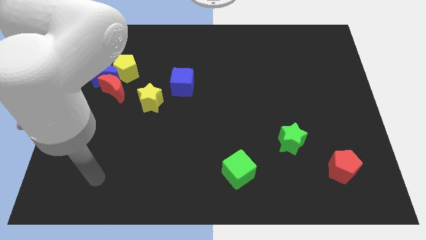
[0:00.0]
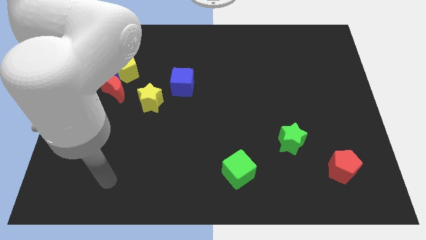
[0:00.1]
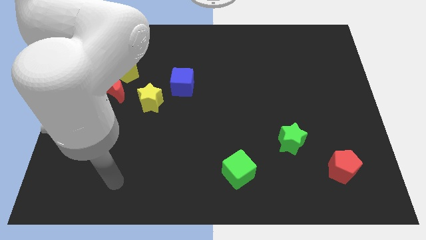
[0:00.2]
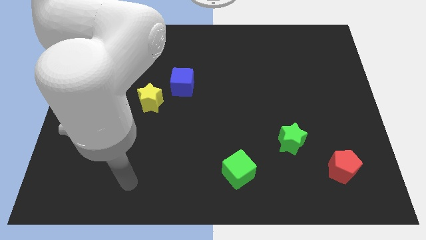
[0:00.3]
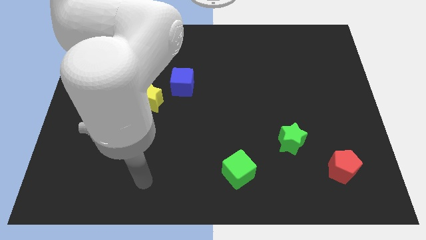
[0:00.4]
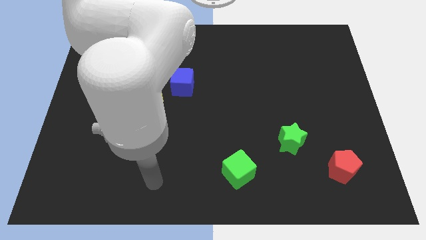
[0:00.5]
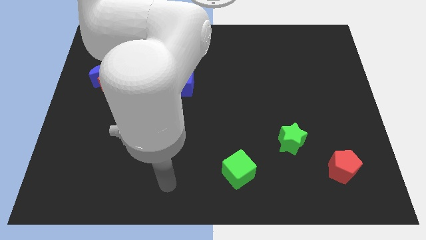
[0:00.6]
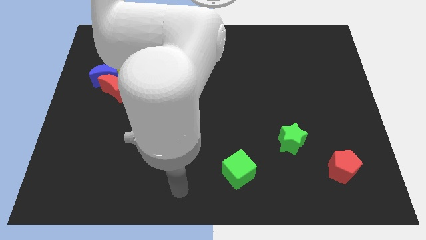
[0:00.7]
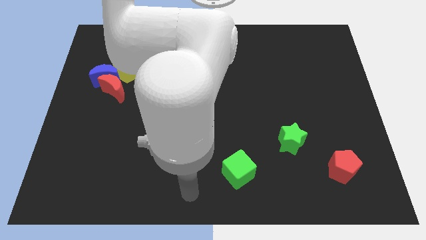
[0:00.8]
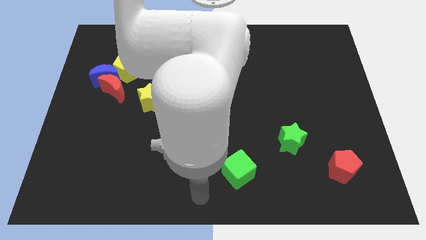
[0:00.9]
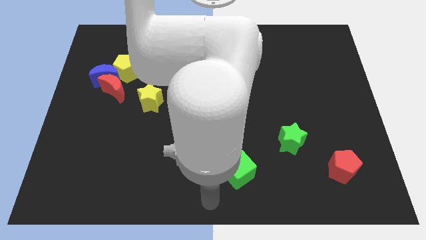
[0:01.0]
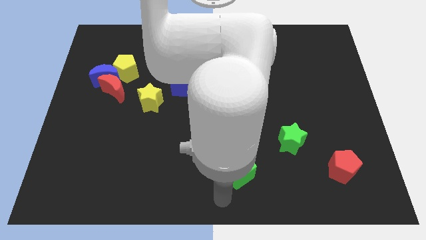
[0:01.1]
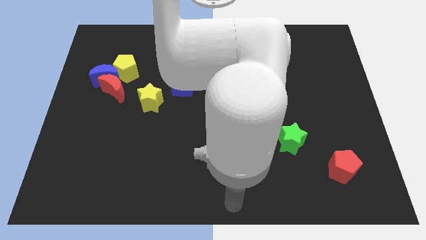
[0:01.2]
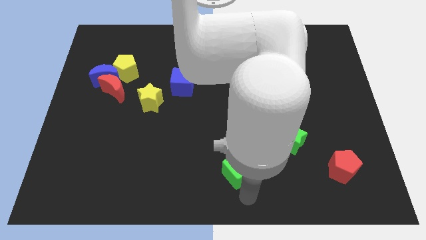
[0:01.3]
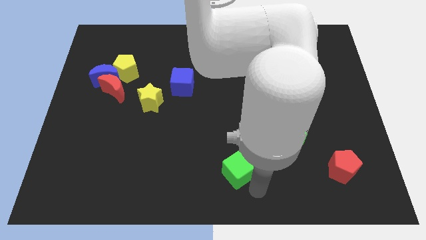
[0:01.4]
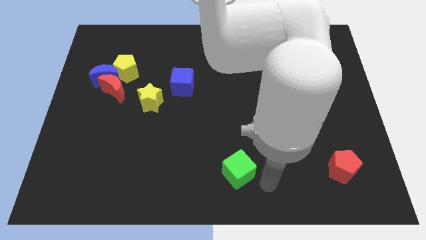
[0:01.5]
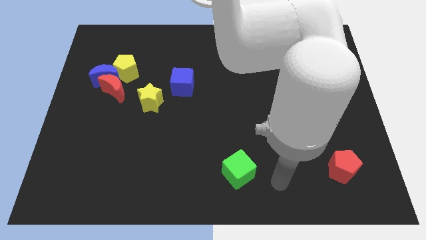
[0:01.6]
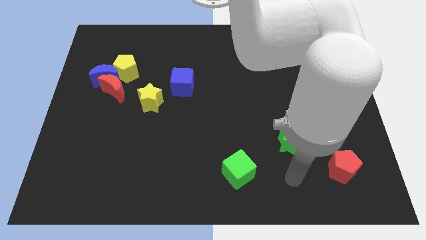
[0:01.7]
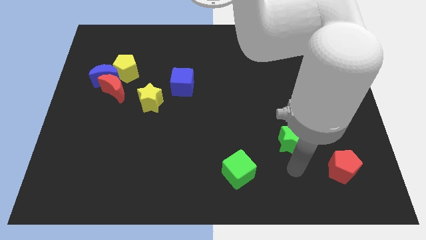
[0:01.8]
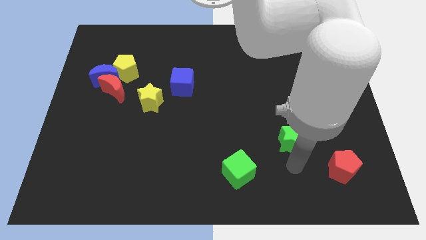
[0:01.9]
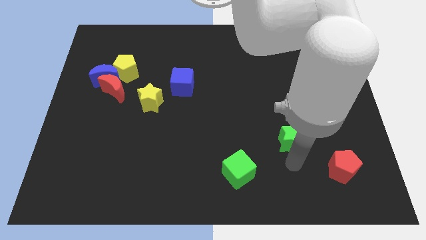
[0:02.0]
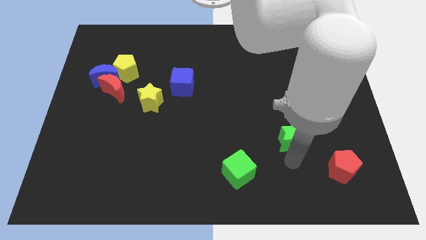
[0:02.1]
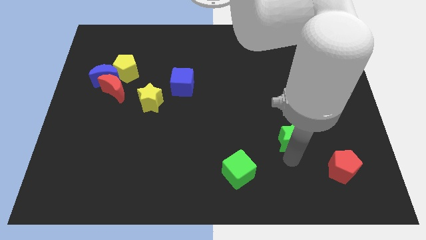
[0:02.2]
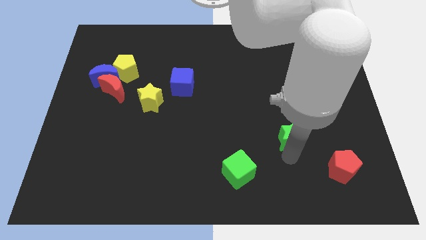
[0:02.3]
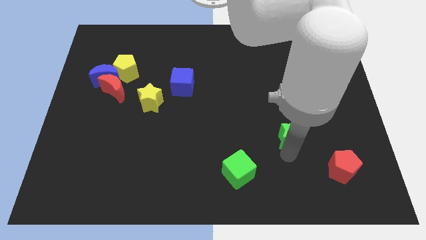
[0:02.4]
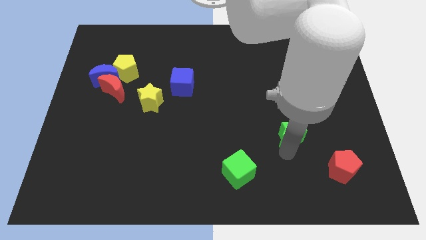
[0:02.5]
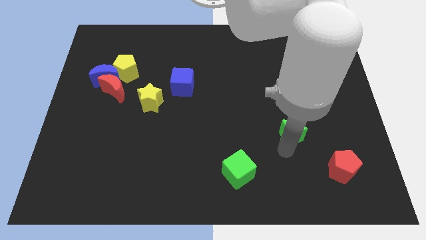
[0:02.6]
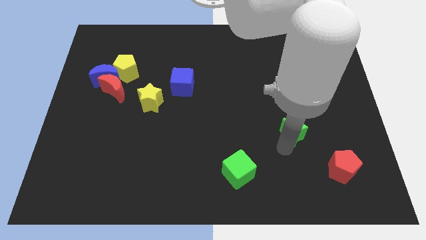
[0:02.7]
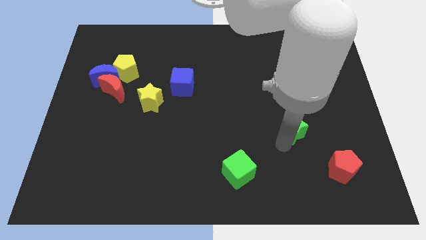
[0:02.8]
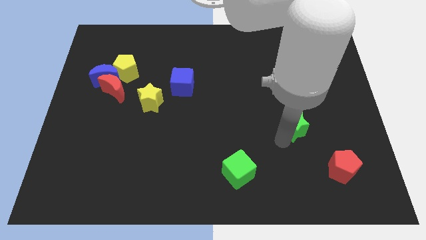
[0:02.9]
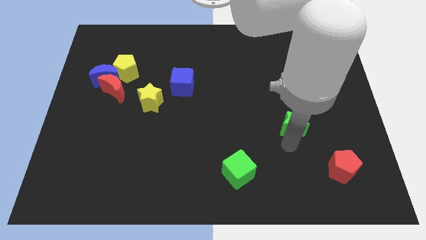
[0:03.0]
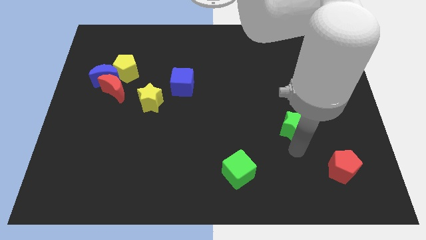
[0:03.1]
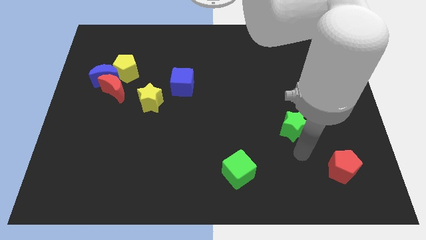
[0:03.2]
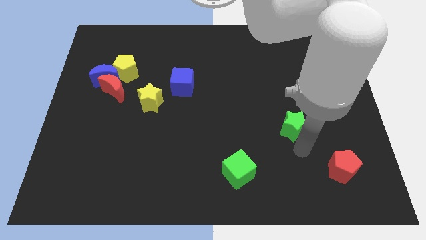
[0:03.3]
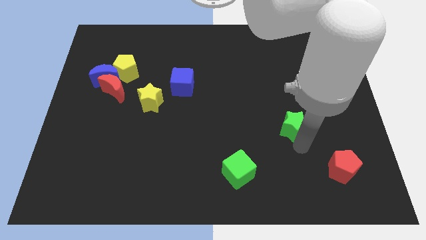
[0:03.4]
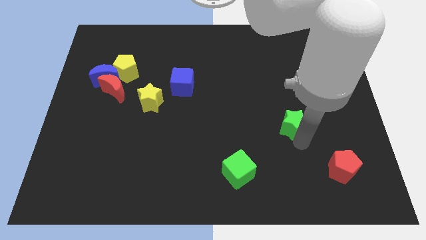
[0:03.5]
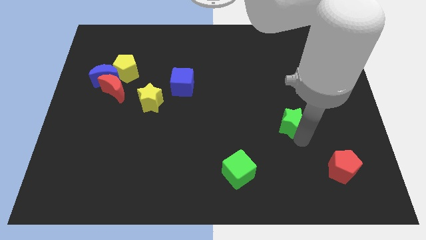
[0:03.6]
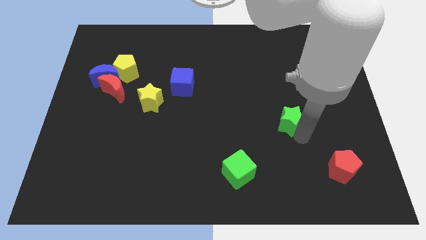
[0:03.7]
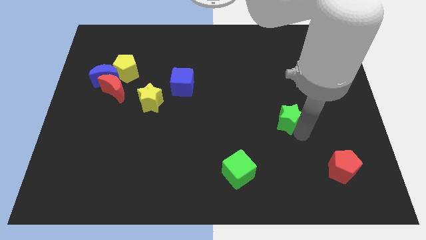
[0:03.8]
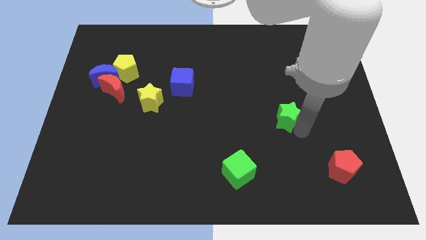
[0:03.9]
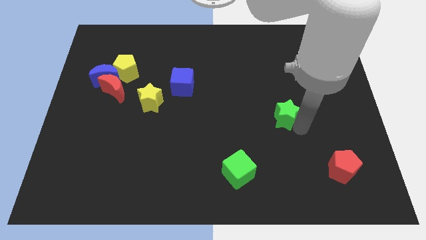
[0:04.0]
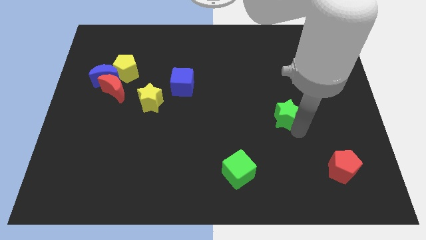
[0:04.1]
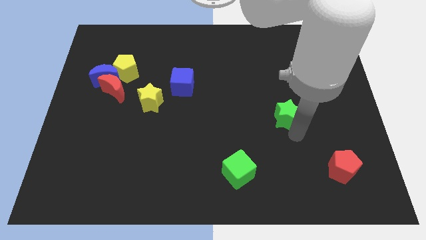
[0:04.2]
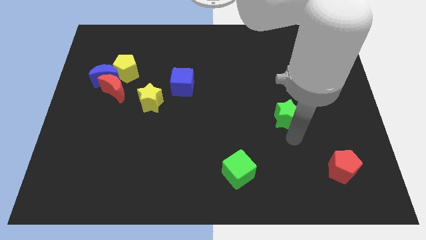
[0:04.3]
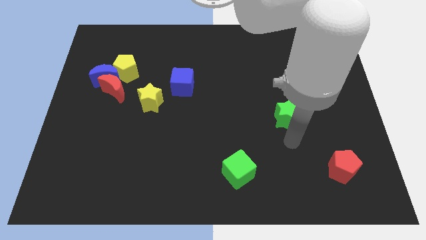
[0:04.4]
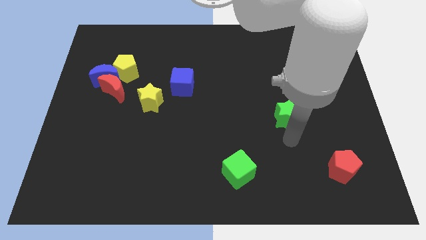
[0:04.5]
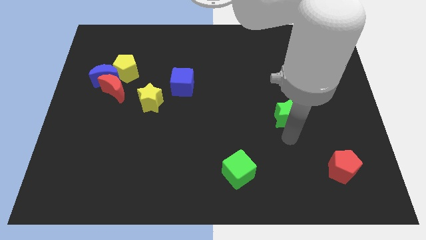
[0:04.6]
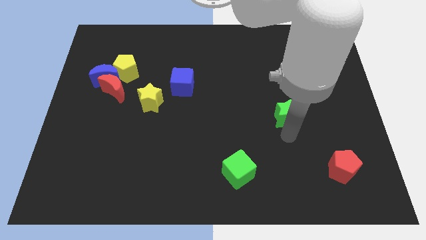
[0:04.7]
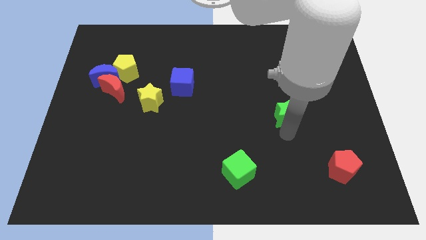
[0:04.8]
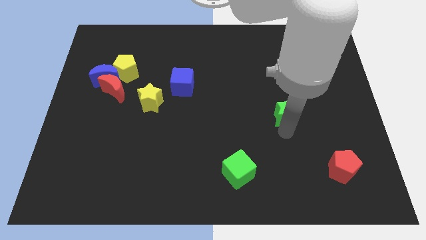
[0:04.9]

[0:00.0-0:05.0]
push the green star up a little bit

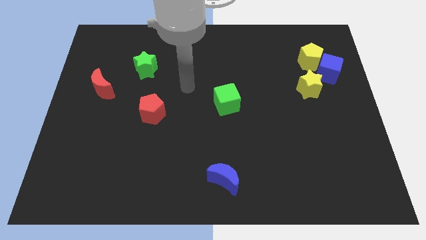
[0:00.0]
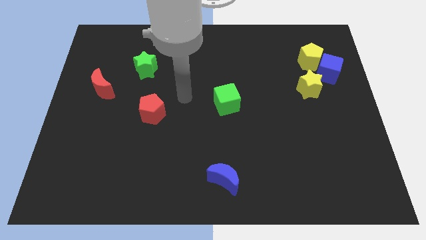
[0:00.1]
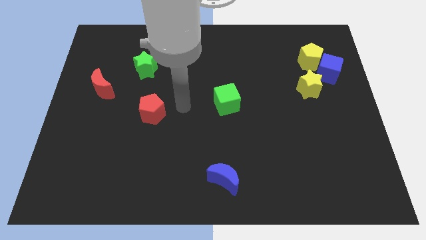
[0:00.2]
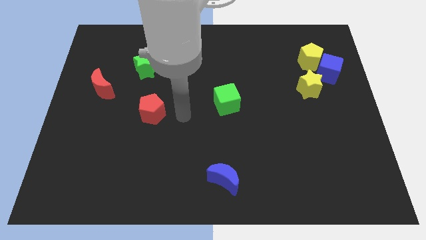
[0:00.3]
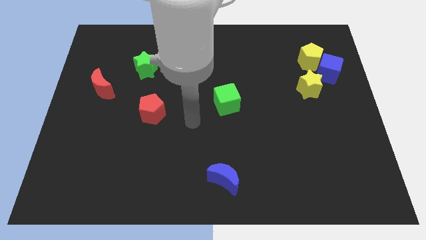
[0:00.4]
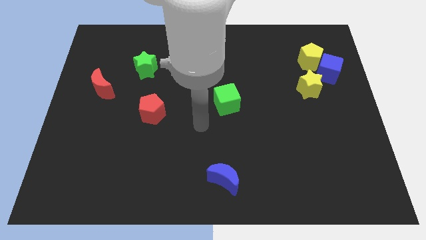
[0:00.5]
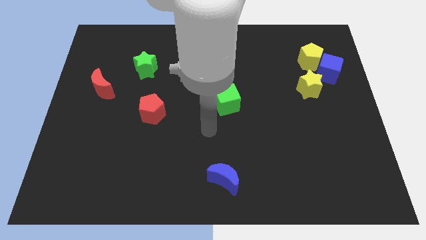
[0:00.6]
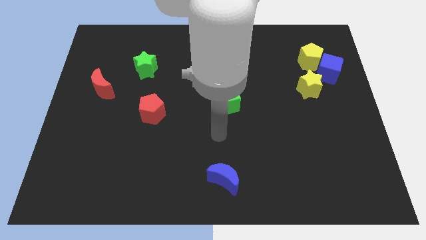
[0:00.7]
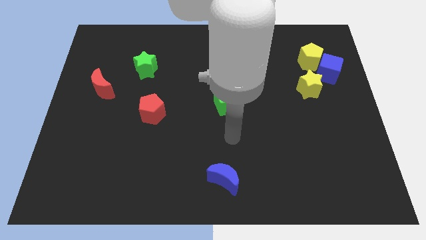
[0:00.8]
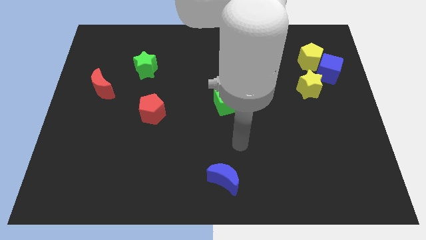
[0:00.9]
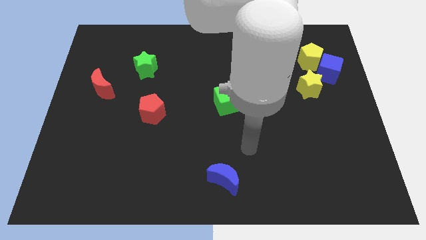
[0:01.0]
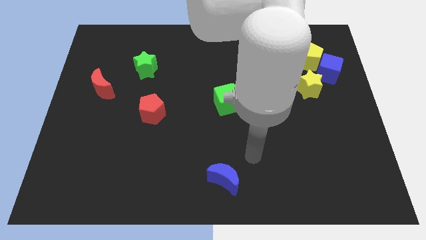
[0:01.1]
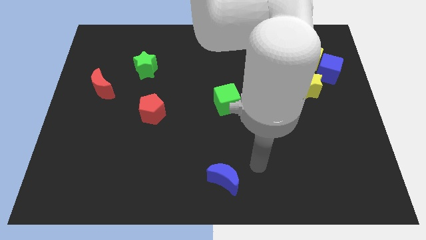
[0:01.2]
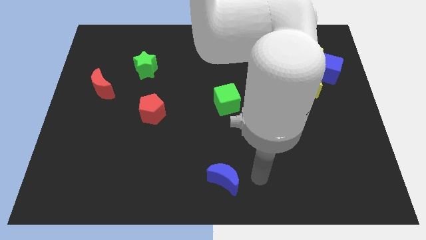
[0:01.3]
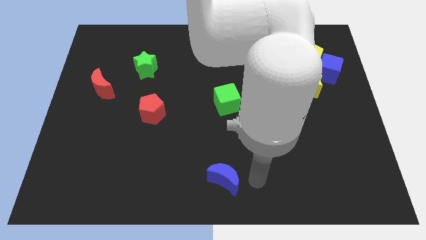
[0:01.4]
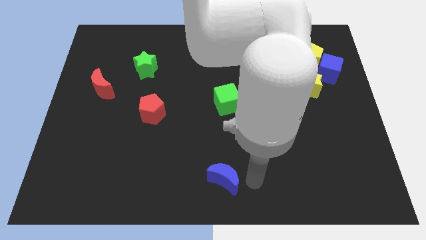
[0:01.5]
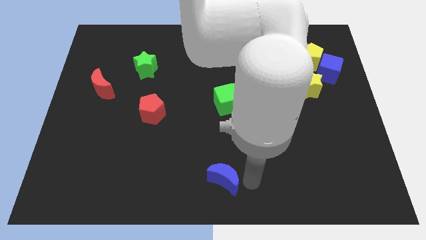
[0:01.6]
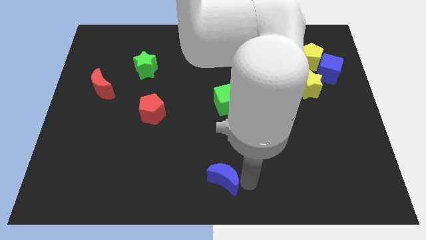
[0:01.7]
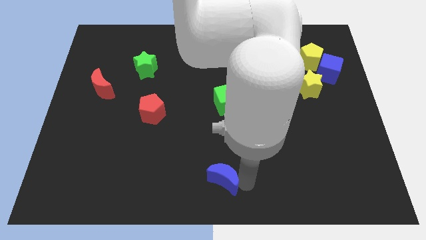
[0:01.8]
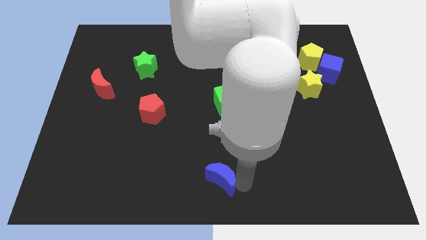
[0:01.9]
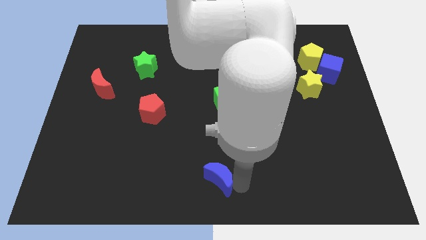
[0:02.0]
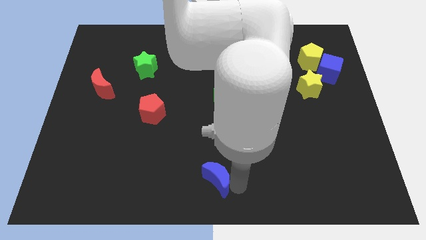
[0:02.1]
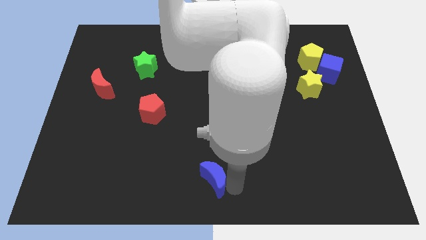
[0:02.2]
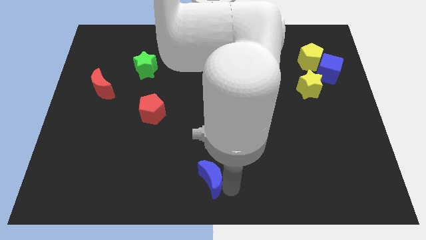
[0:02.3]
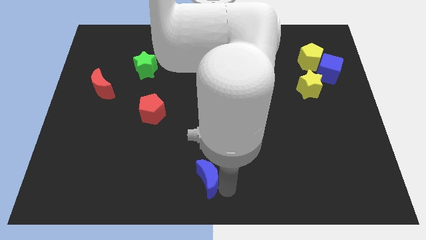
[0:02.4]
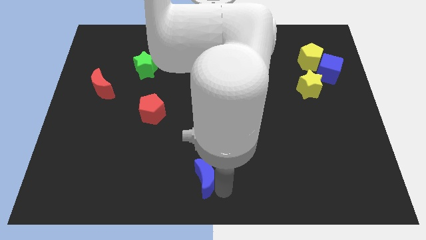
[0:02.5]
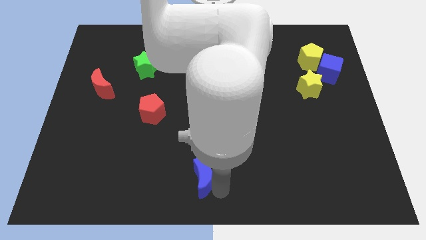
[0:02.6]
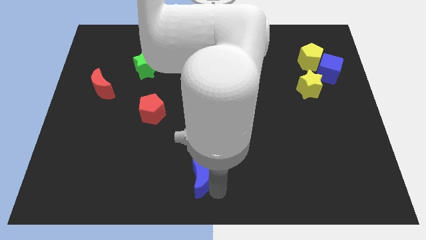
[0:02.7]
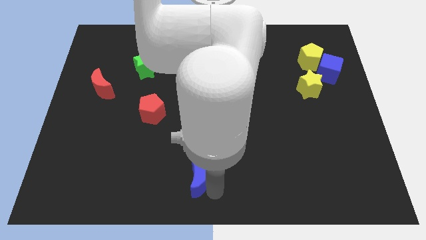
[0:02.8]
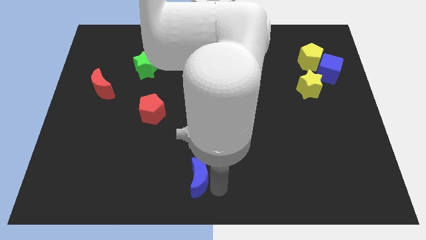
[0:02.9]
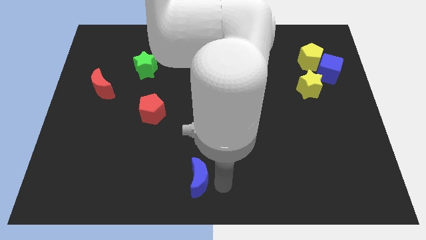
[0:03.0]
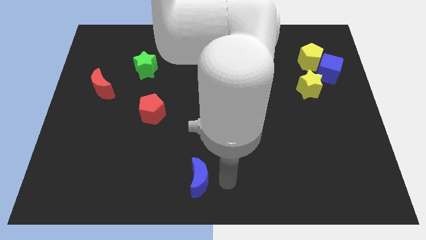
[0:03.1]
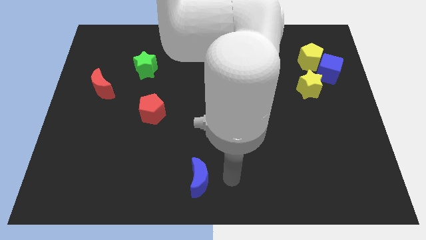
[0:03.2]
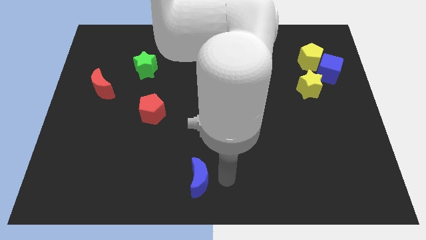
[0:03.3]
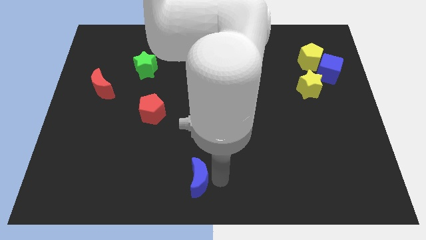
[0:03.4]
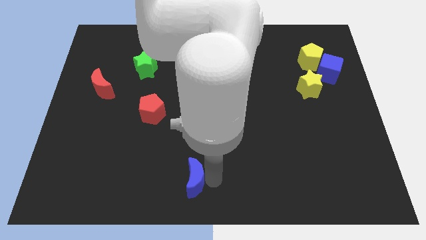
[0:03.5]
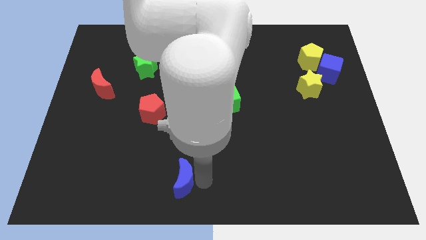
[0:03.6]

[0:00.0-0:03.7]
slightly move the blue moon to the left
